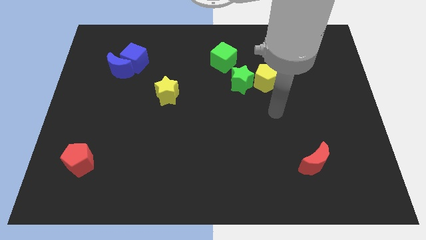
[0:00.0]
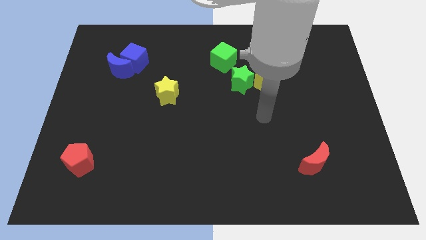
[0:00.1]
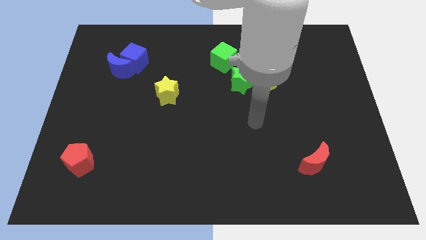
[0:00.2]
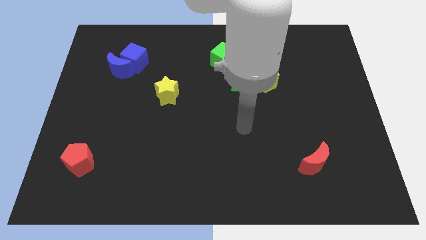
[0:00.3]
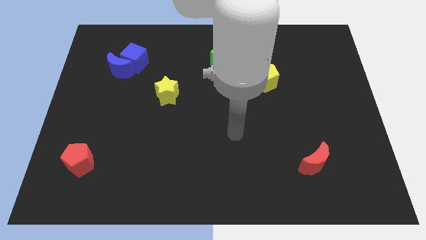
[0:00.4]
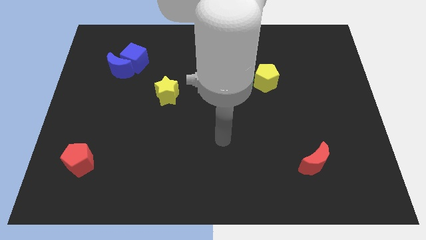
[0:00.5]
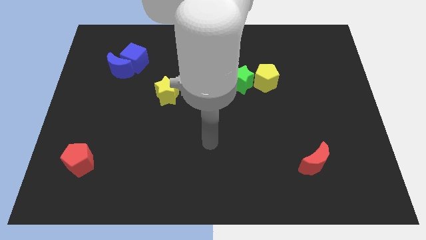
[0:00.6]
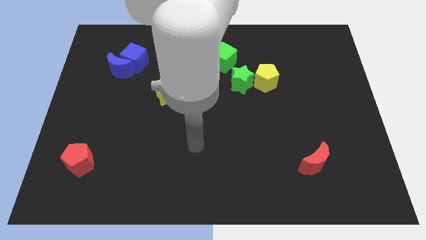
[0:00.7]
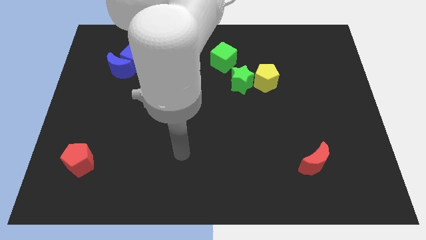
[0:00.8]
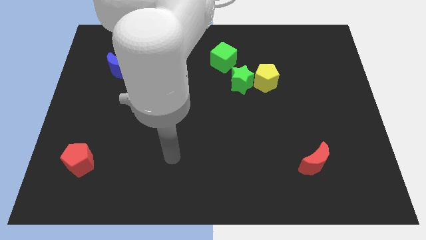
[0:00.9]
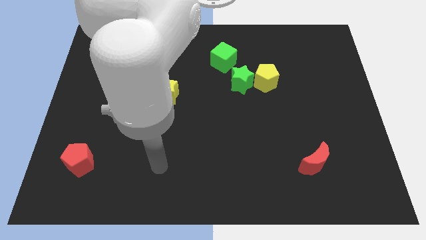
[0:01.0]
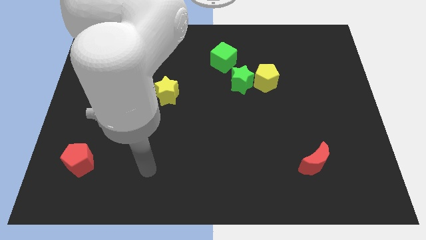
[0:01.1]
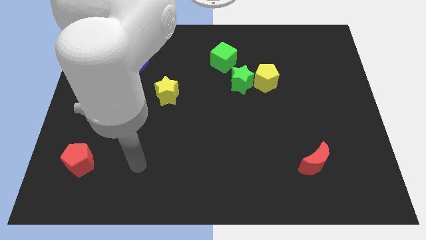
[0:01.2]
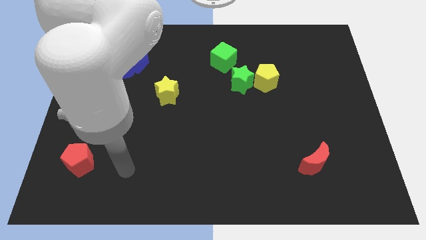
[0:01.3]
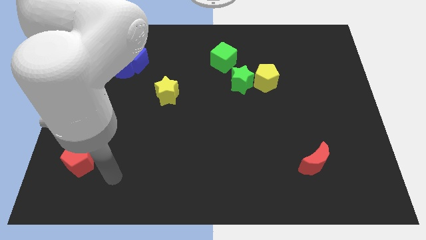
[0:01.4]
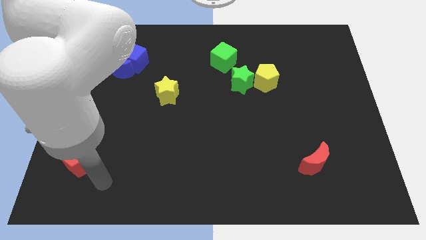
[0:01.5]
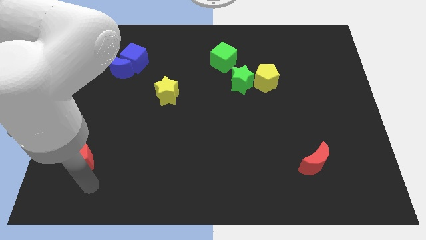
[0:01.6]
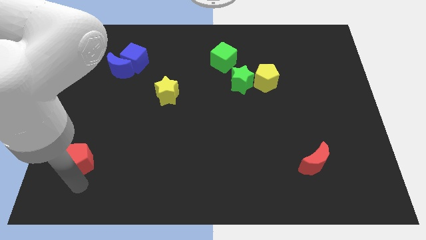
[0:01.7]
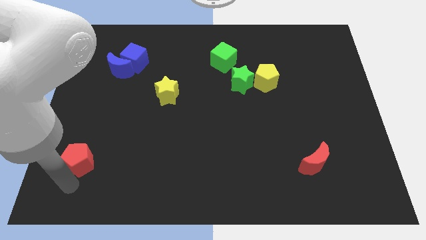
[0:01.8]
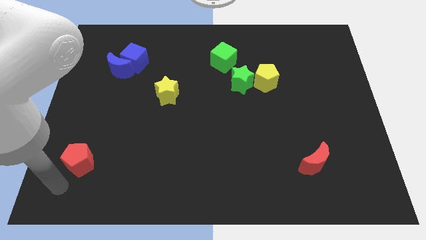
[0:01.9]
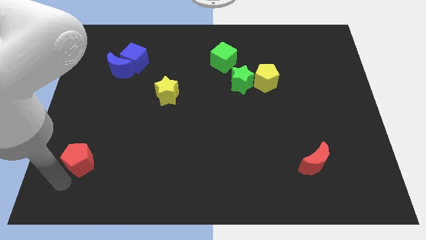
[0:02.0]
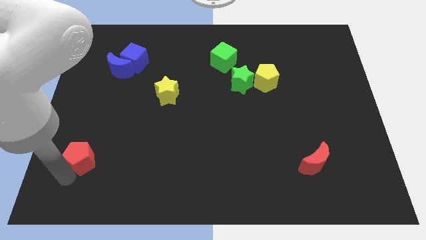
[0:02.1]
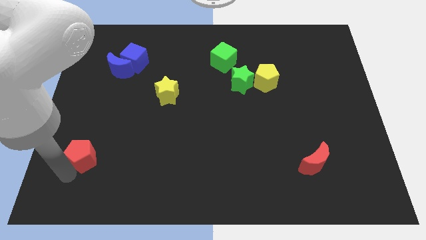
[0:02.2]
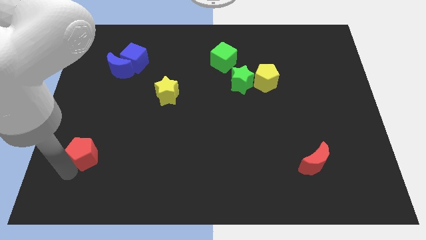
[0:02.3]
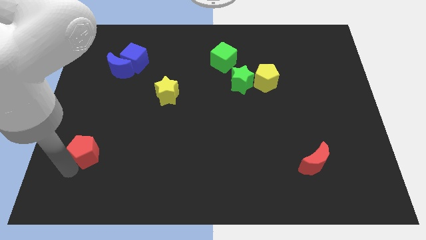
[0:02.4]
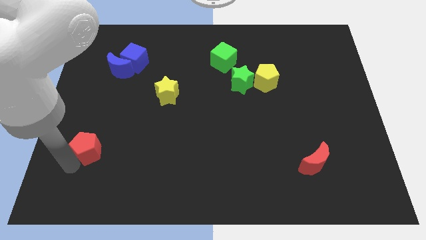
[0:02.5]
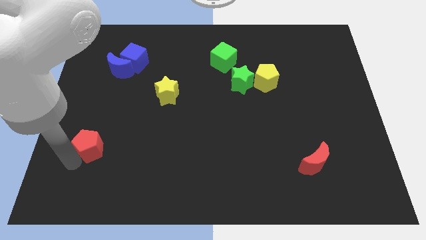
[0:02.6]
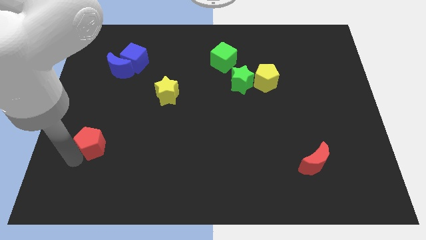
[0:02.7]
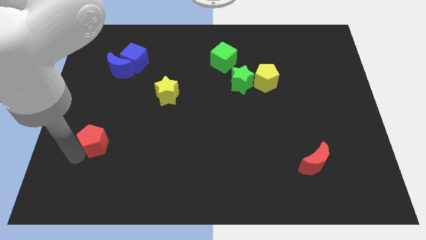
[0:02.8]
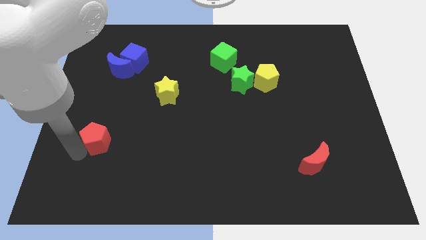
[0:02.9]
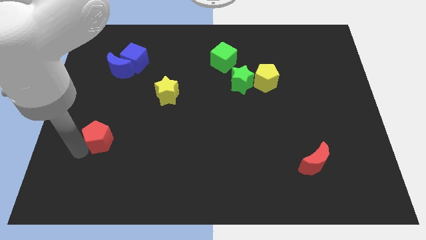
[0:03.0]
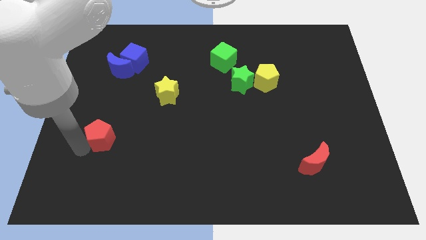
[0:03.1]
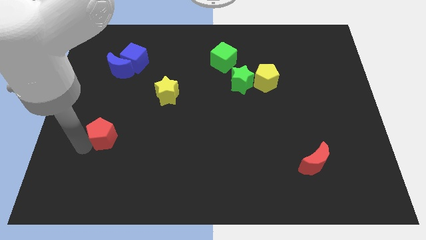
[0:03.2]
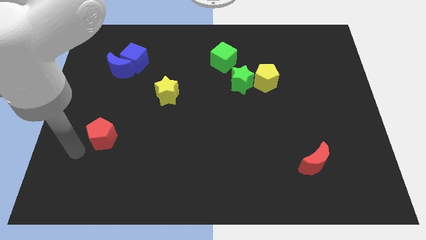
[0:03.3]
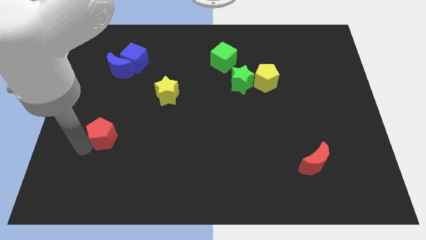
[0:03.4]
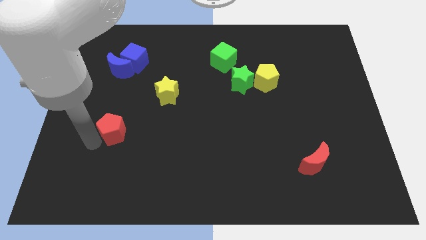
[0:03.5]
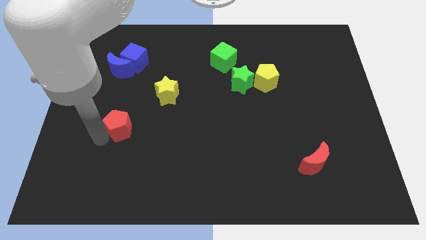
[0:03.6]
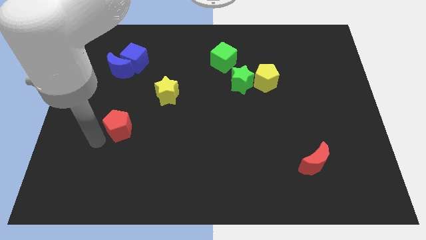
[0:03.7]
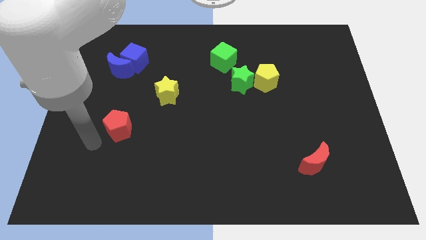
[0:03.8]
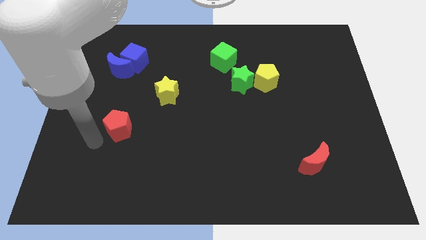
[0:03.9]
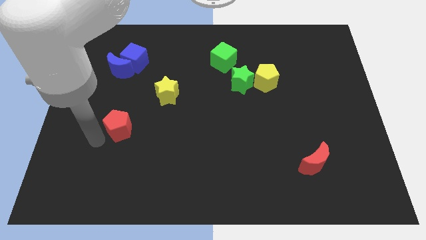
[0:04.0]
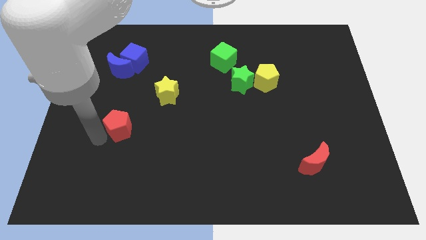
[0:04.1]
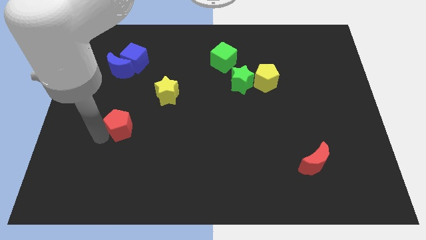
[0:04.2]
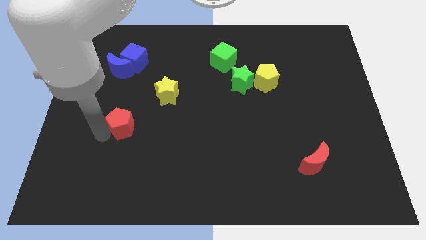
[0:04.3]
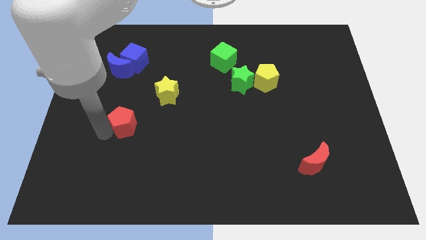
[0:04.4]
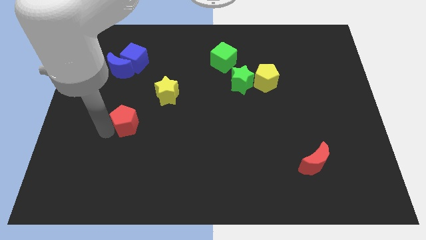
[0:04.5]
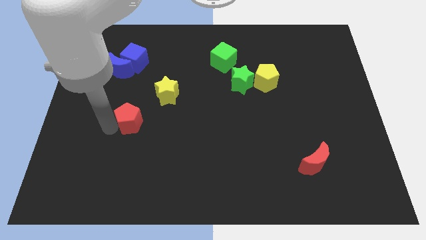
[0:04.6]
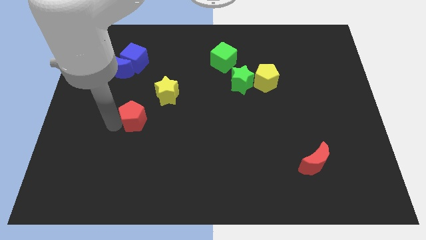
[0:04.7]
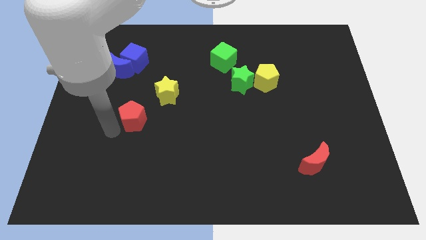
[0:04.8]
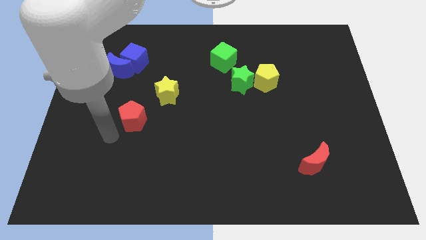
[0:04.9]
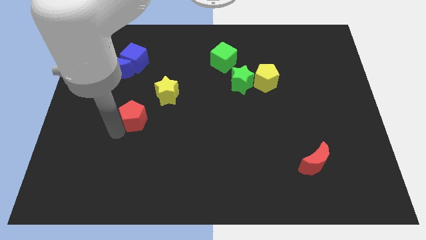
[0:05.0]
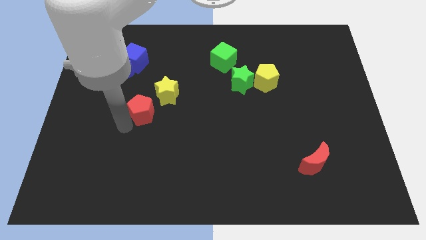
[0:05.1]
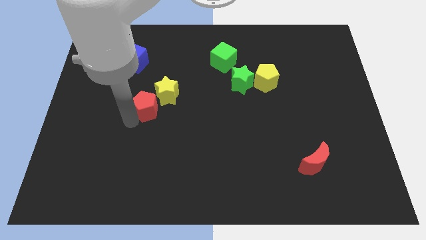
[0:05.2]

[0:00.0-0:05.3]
slide the red pentagon next to the yellow star

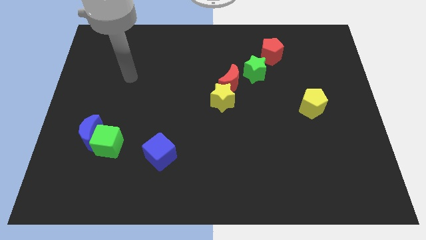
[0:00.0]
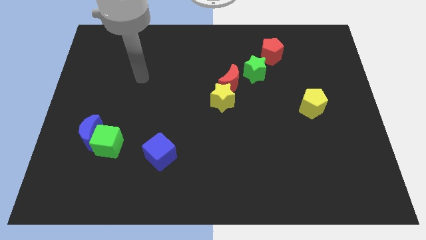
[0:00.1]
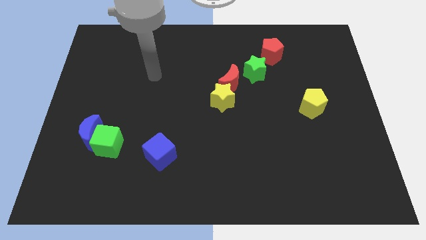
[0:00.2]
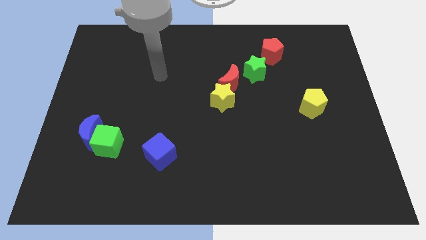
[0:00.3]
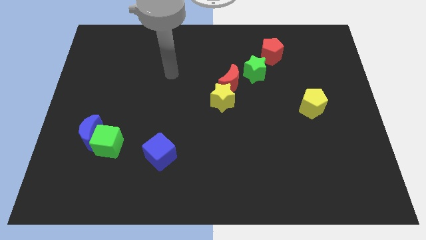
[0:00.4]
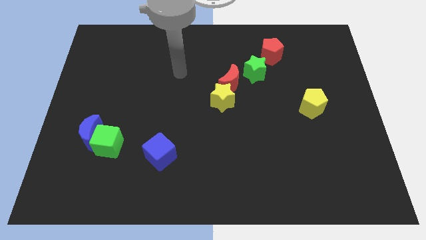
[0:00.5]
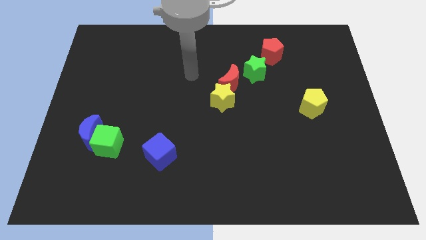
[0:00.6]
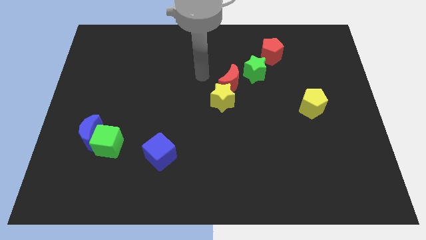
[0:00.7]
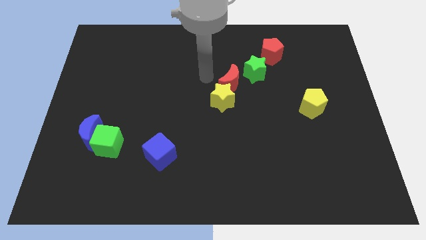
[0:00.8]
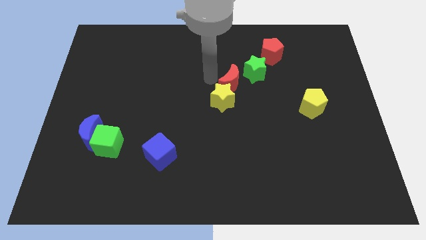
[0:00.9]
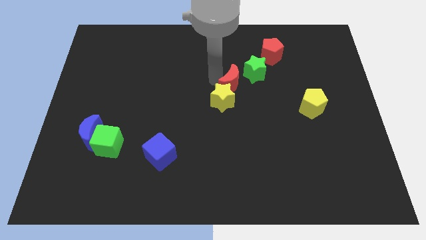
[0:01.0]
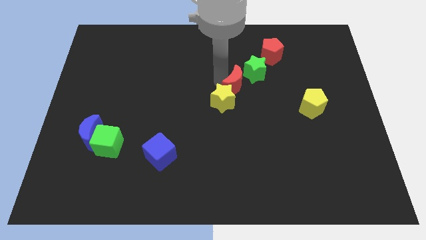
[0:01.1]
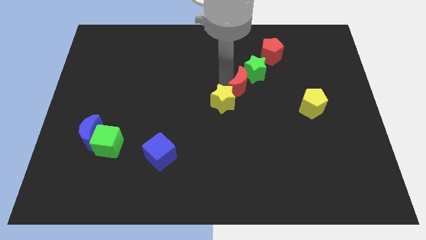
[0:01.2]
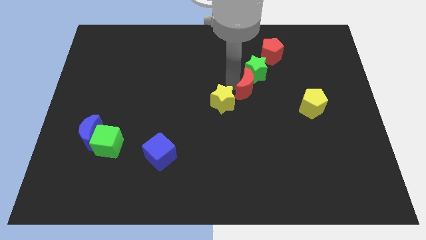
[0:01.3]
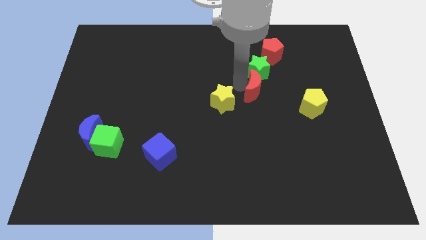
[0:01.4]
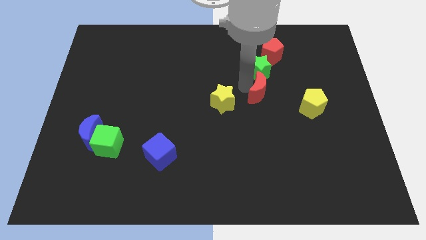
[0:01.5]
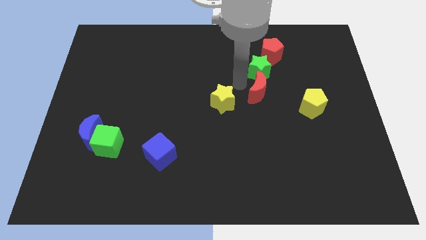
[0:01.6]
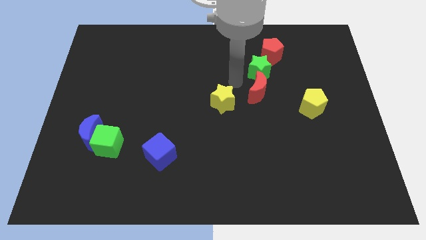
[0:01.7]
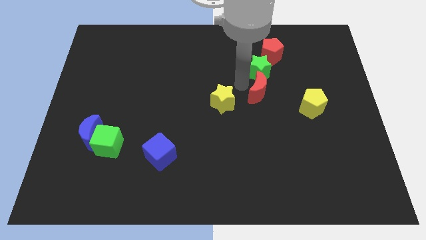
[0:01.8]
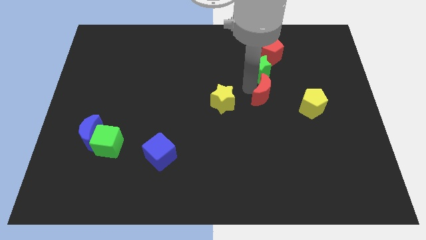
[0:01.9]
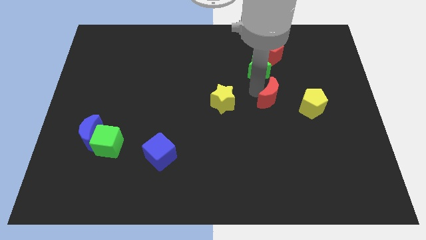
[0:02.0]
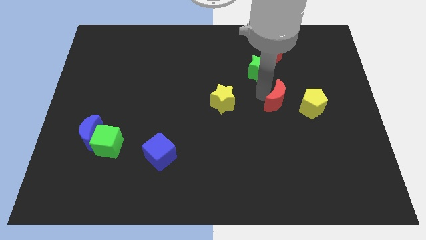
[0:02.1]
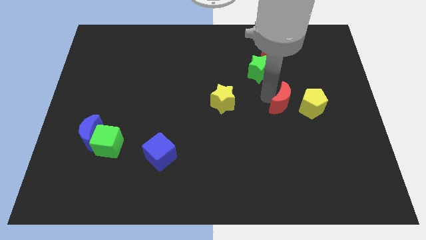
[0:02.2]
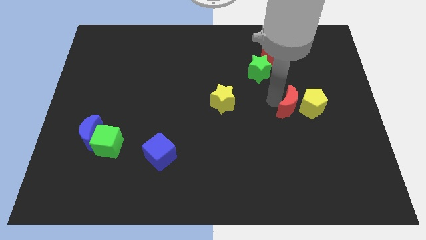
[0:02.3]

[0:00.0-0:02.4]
slide the red moon close to the yellow pentagon
